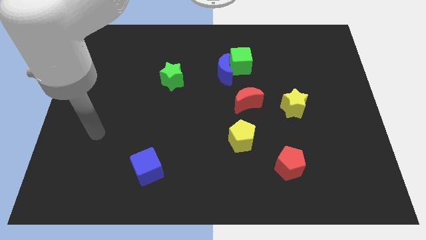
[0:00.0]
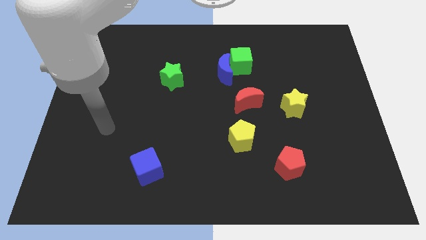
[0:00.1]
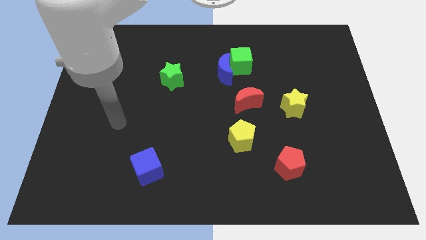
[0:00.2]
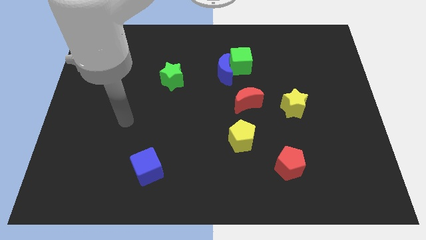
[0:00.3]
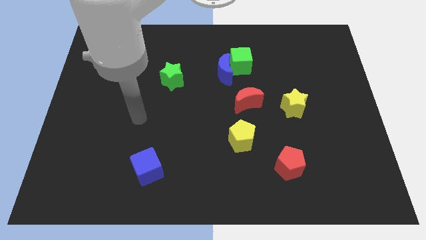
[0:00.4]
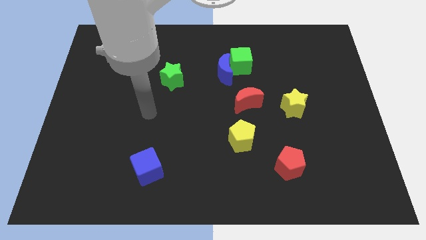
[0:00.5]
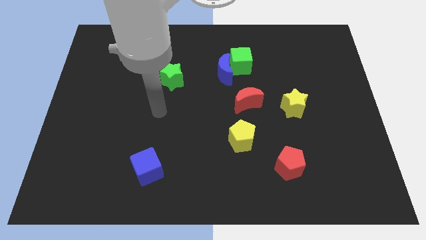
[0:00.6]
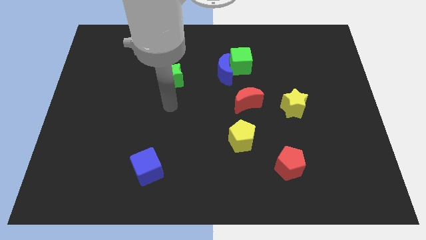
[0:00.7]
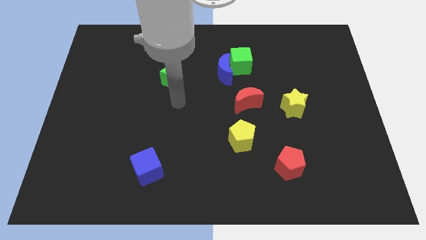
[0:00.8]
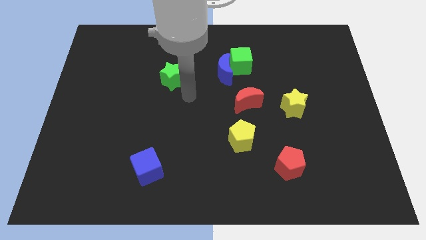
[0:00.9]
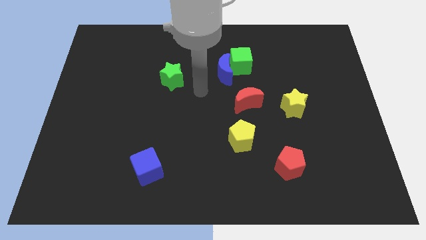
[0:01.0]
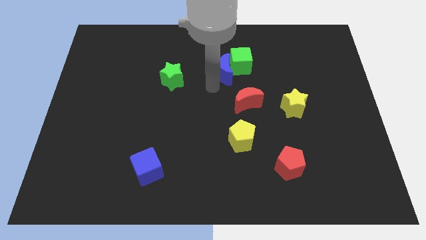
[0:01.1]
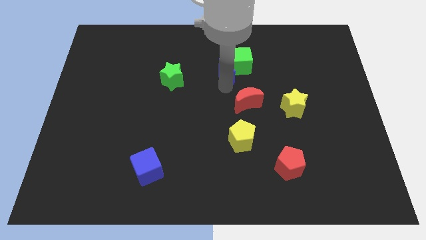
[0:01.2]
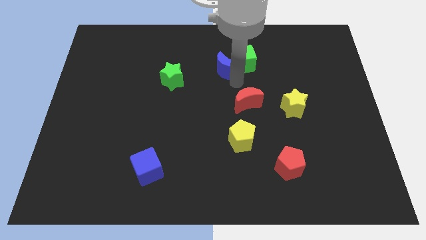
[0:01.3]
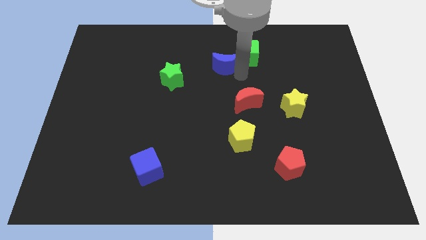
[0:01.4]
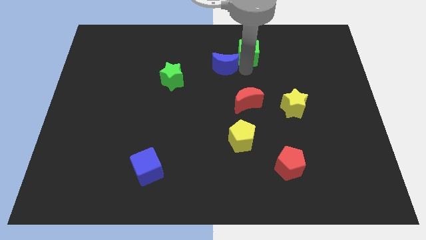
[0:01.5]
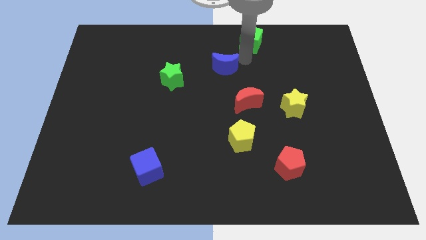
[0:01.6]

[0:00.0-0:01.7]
move the blue moon away from the green cube

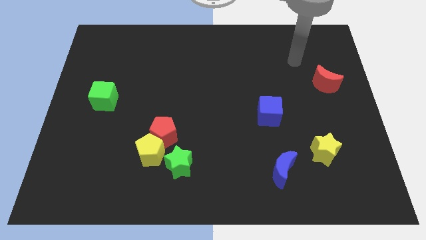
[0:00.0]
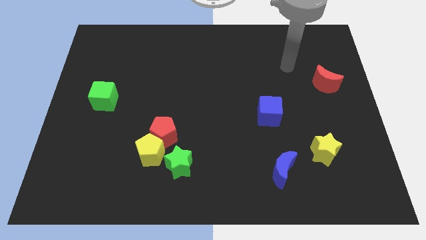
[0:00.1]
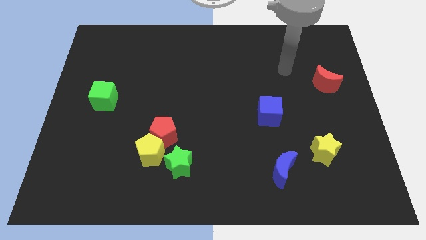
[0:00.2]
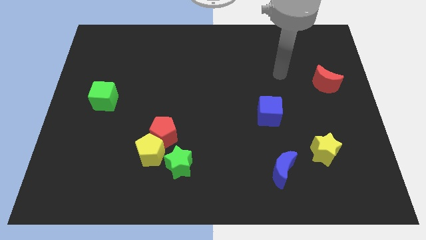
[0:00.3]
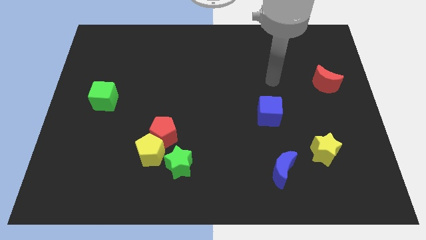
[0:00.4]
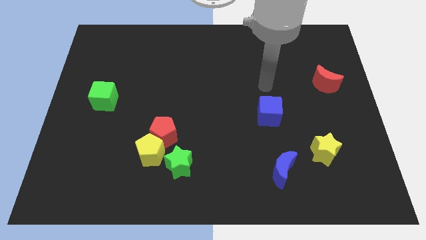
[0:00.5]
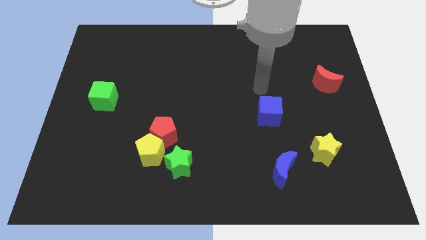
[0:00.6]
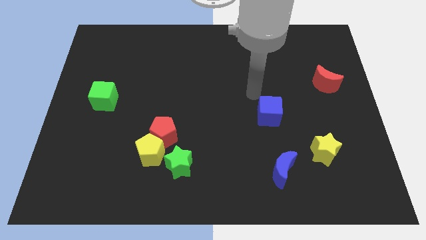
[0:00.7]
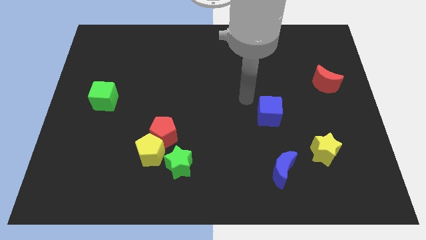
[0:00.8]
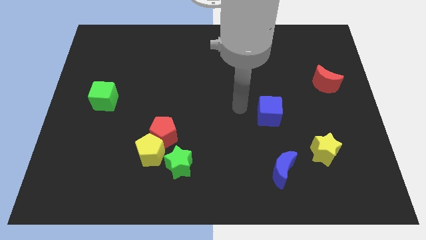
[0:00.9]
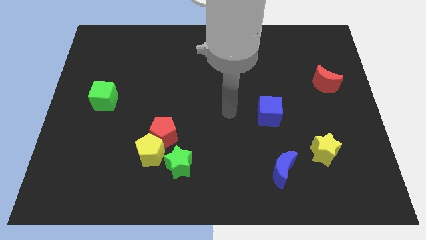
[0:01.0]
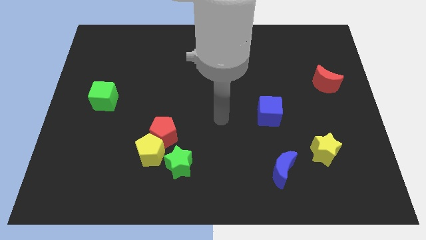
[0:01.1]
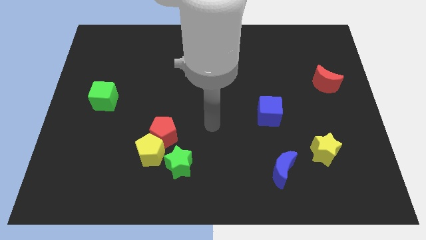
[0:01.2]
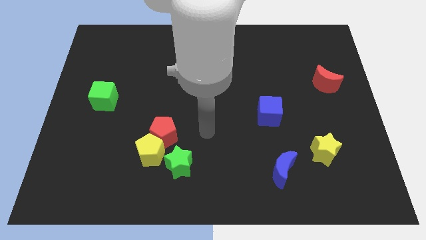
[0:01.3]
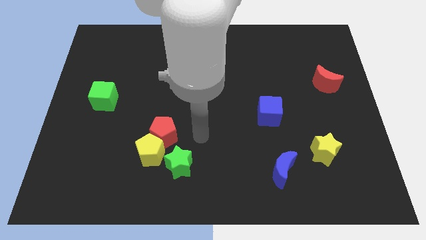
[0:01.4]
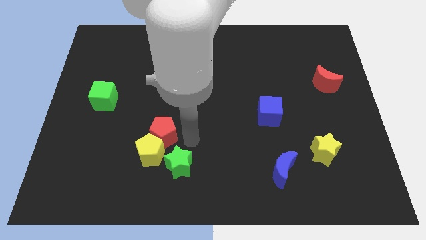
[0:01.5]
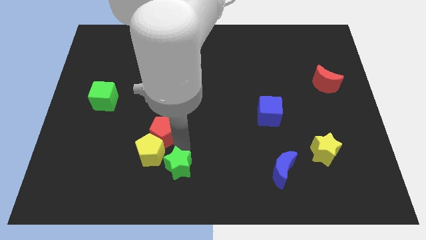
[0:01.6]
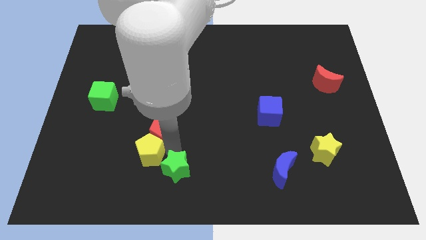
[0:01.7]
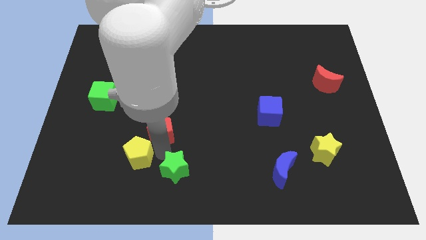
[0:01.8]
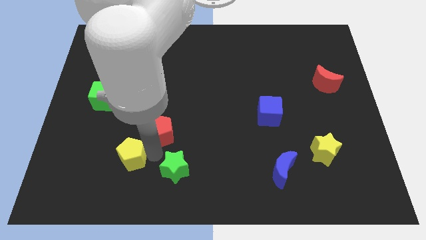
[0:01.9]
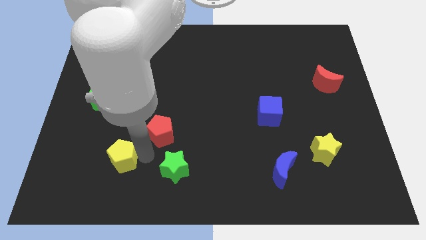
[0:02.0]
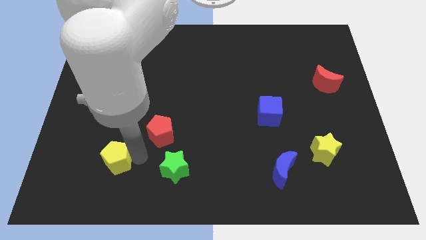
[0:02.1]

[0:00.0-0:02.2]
move the yellow pentagon away from the red pentagon and green star

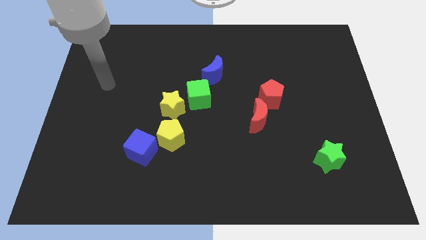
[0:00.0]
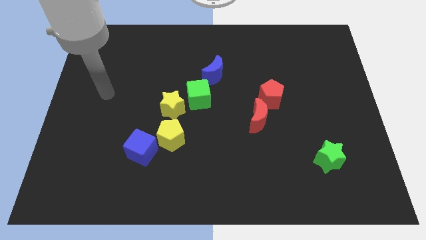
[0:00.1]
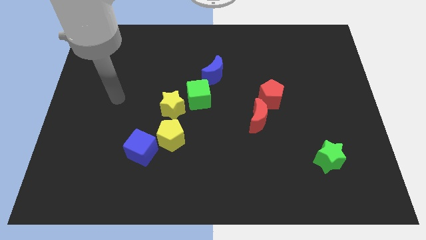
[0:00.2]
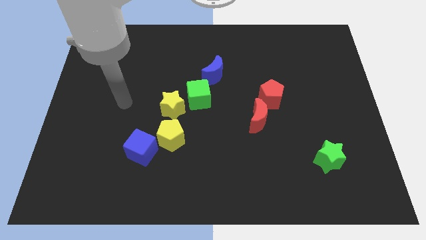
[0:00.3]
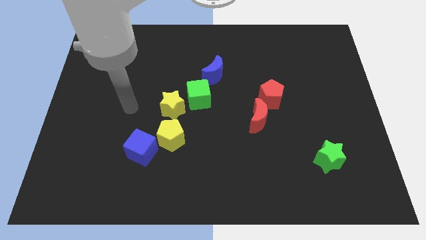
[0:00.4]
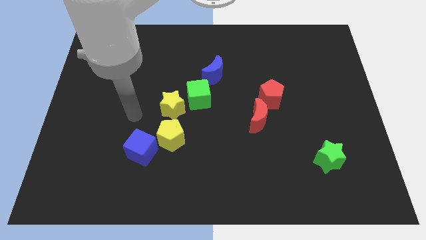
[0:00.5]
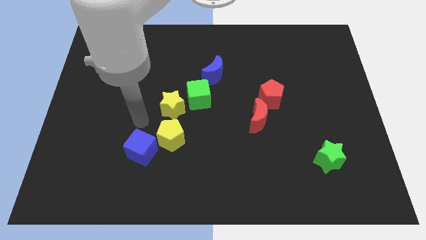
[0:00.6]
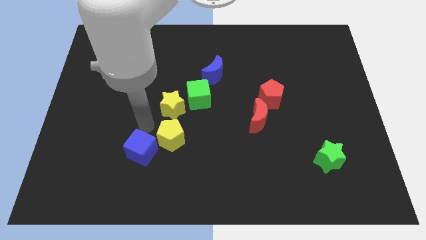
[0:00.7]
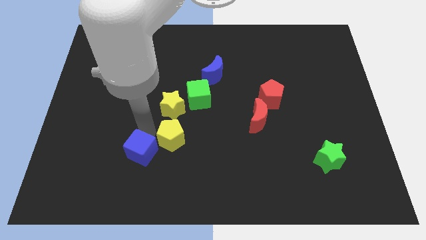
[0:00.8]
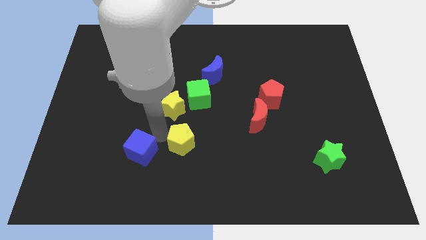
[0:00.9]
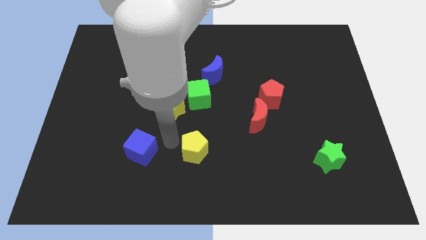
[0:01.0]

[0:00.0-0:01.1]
separate the blue cube from the yellow pentagon

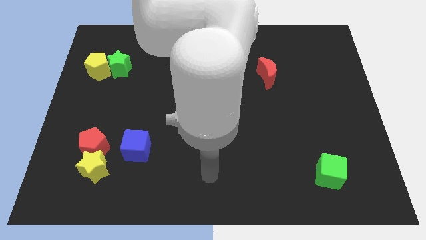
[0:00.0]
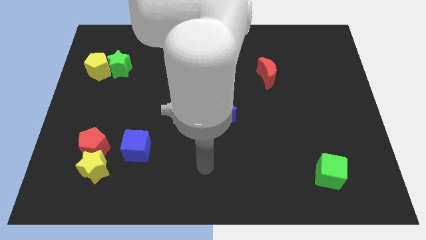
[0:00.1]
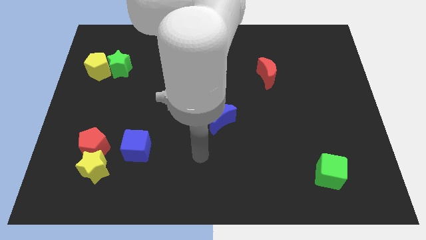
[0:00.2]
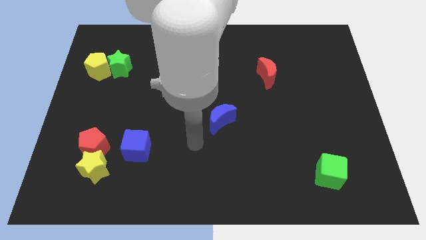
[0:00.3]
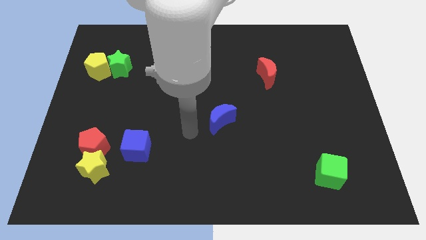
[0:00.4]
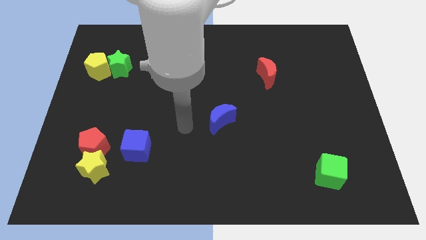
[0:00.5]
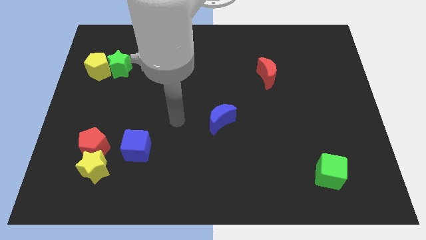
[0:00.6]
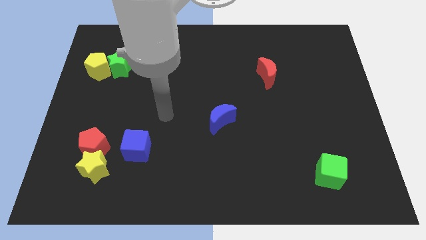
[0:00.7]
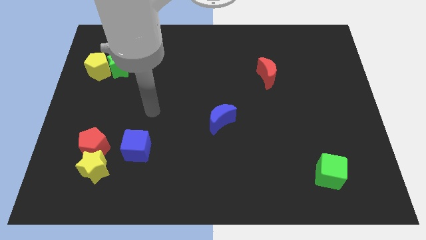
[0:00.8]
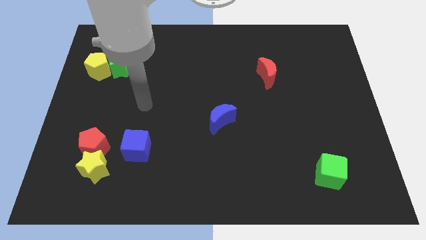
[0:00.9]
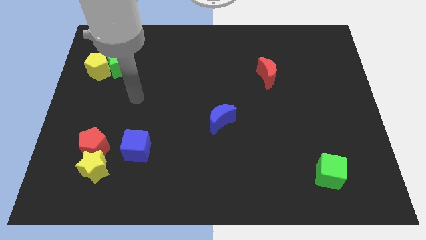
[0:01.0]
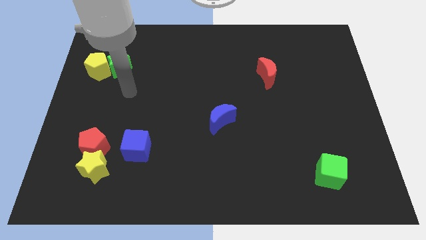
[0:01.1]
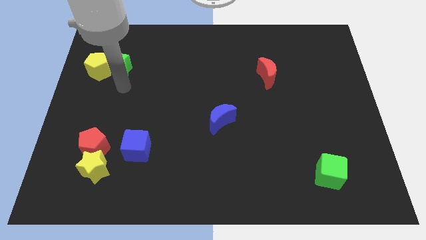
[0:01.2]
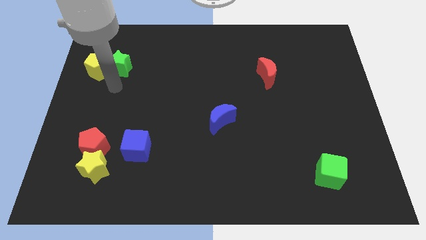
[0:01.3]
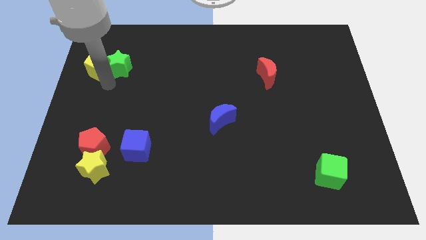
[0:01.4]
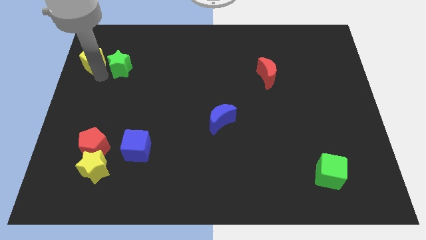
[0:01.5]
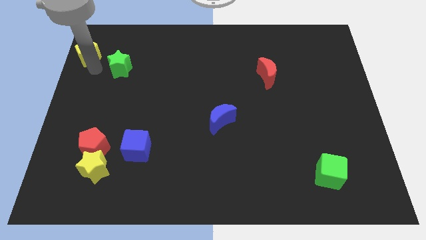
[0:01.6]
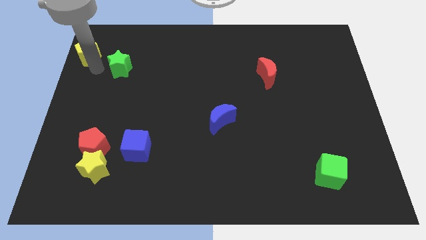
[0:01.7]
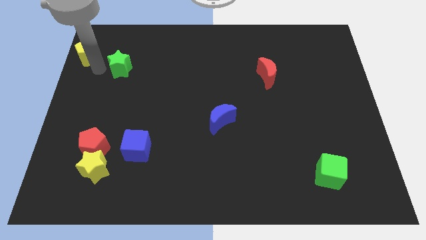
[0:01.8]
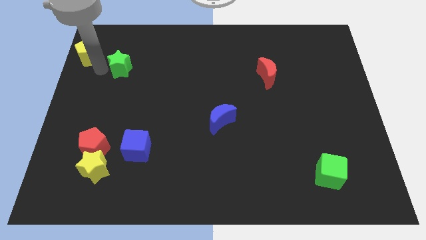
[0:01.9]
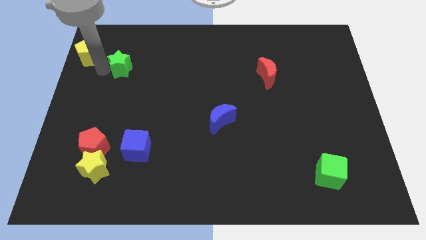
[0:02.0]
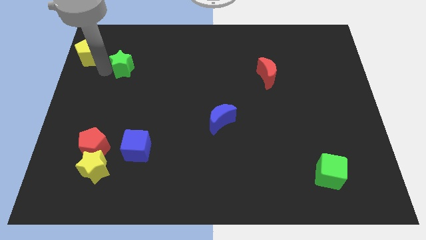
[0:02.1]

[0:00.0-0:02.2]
separate the green star from the yellow pentagon

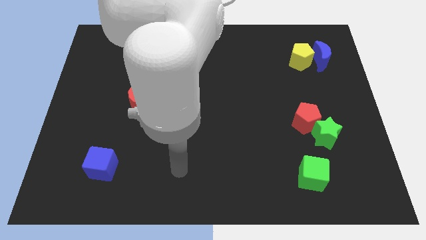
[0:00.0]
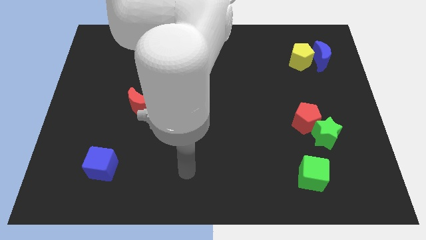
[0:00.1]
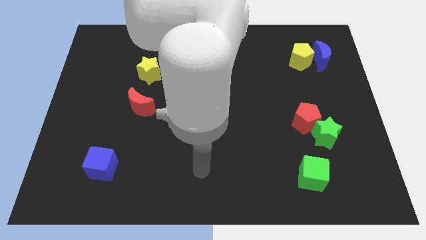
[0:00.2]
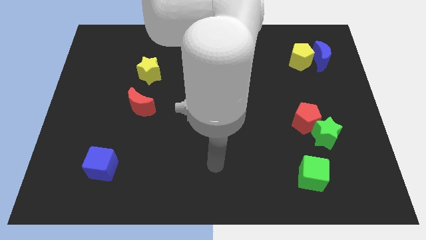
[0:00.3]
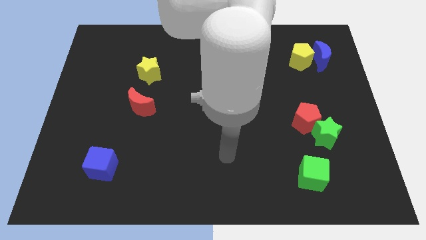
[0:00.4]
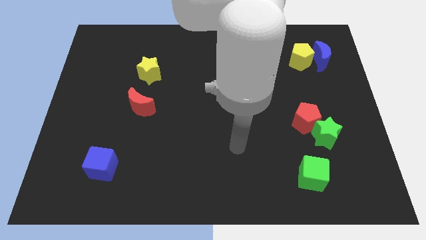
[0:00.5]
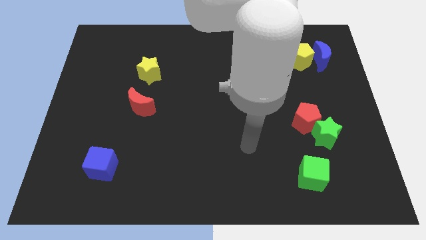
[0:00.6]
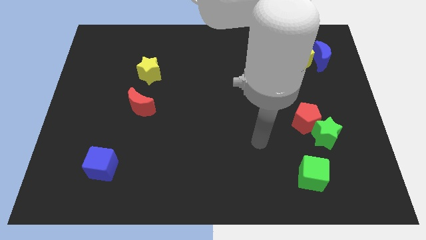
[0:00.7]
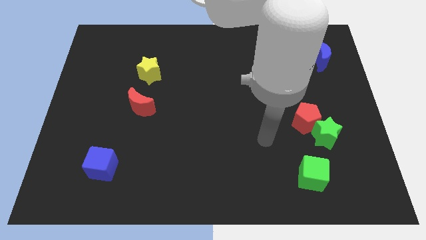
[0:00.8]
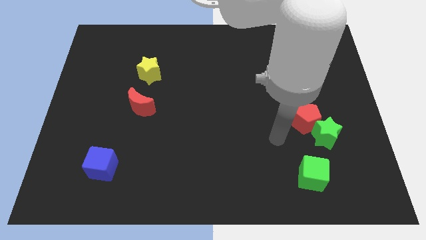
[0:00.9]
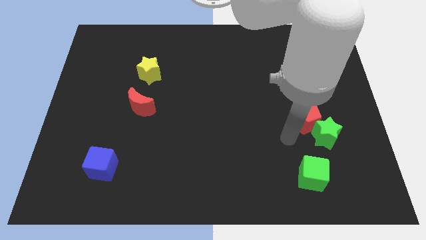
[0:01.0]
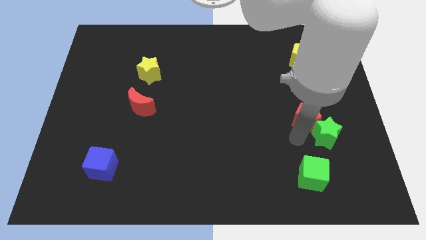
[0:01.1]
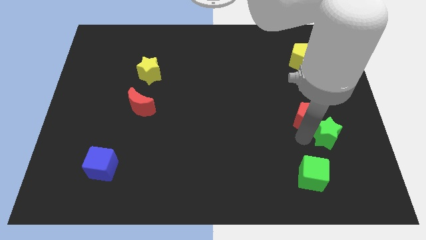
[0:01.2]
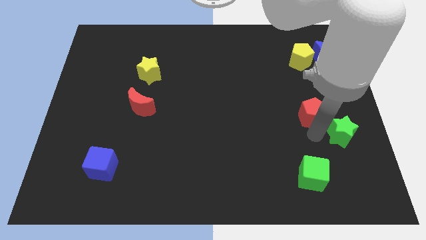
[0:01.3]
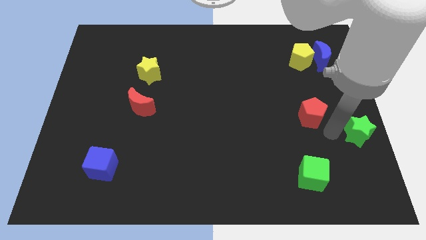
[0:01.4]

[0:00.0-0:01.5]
move the red pentagon away from the green star

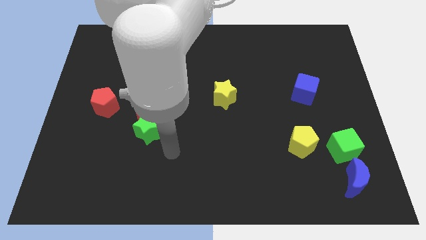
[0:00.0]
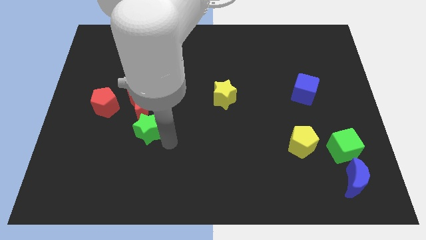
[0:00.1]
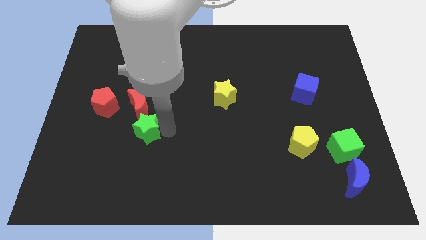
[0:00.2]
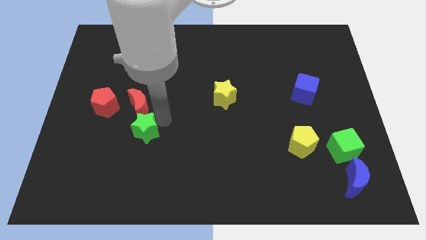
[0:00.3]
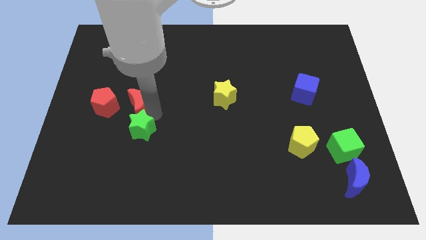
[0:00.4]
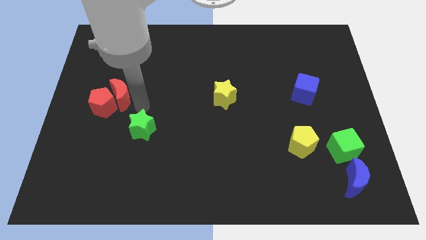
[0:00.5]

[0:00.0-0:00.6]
separate the green star from the red moon
